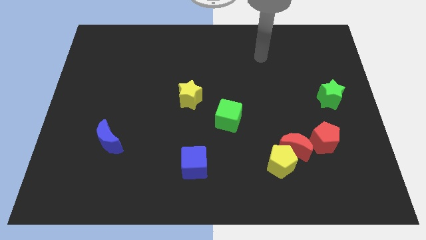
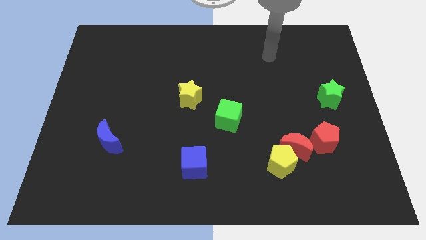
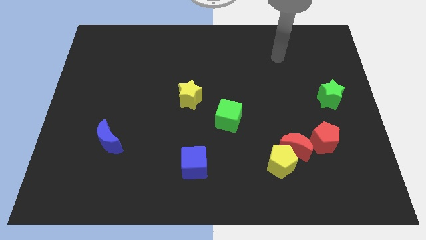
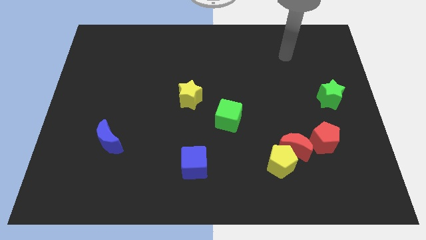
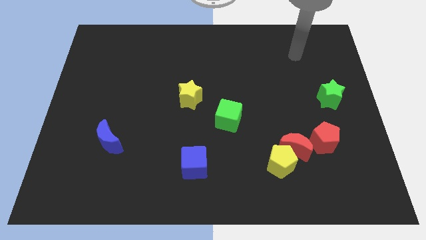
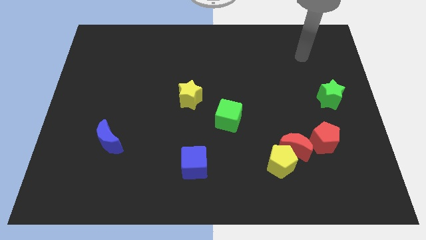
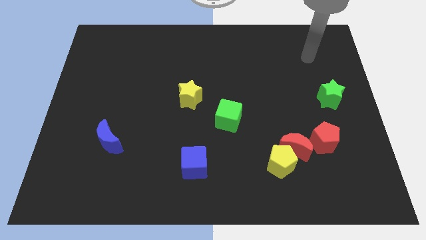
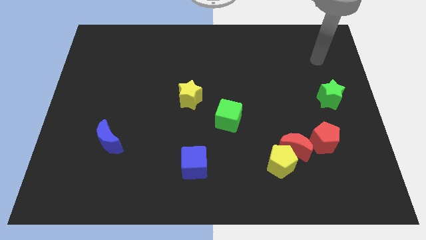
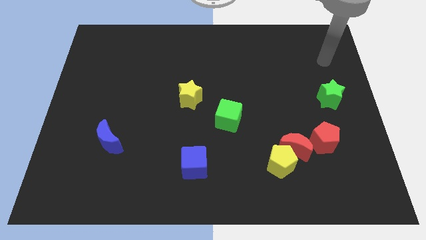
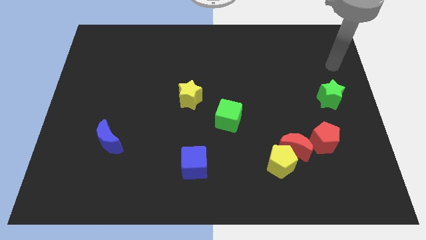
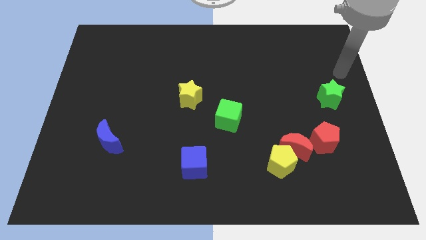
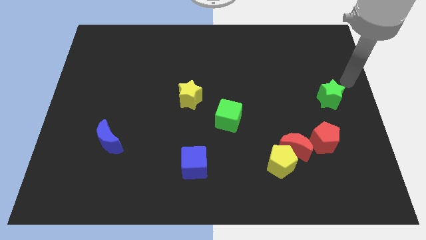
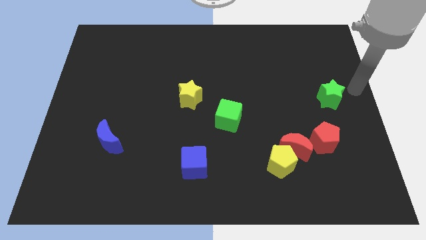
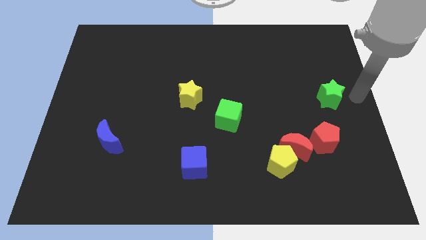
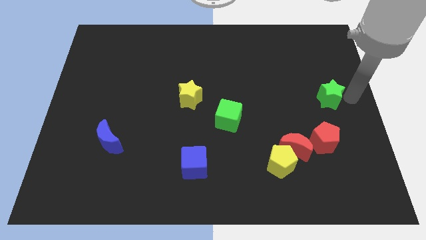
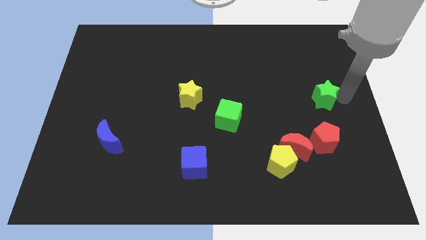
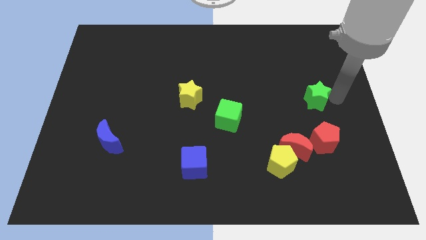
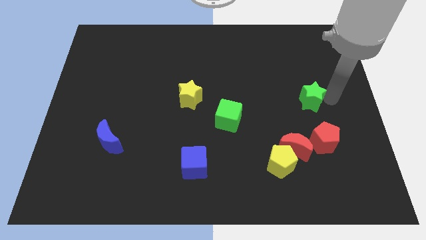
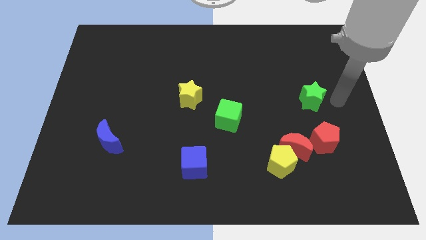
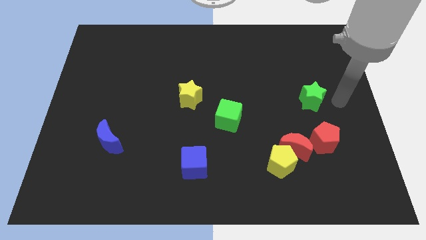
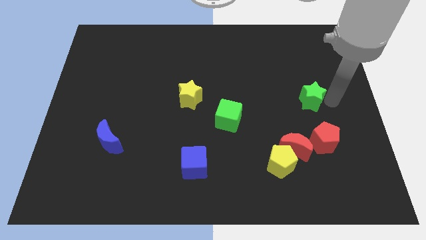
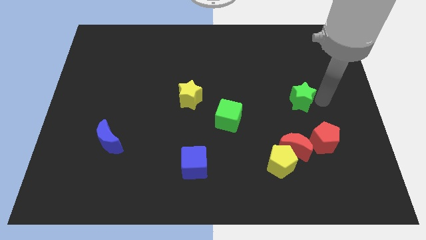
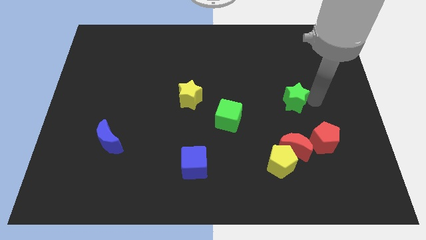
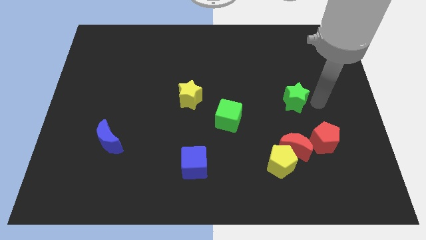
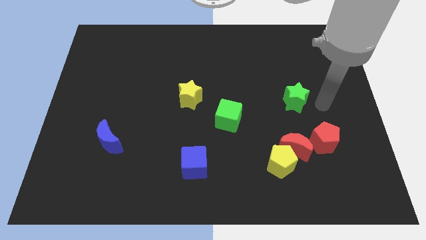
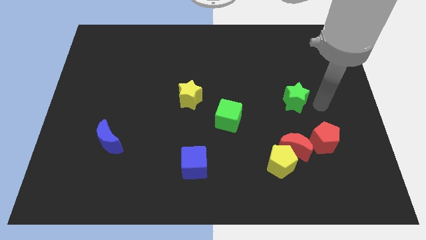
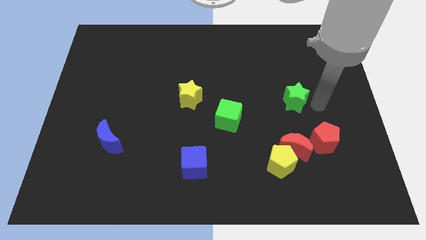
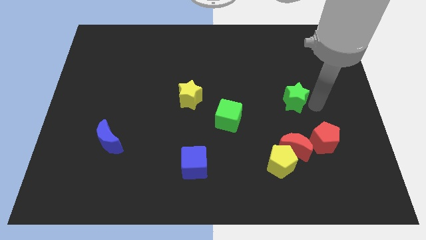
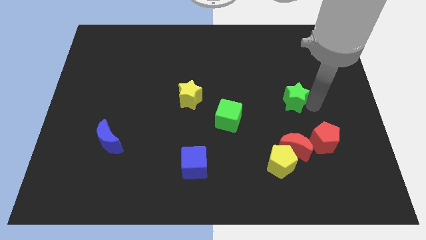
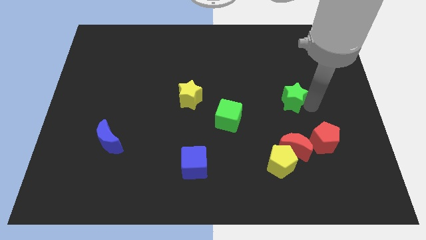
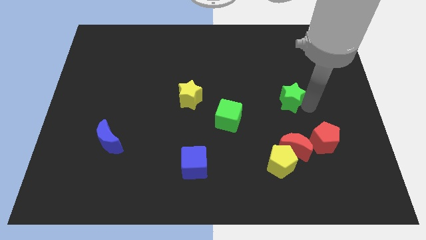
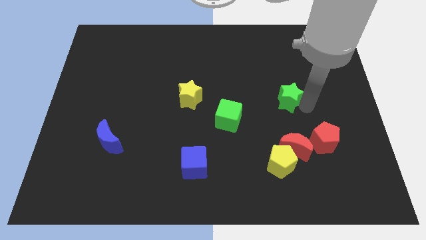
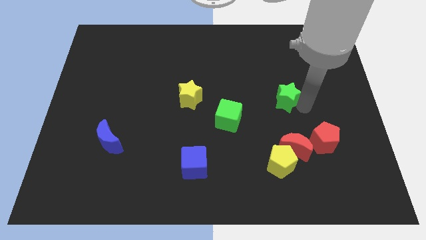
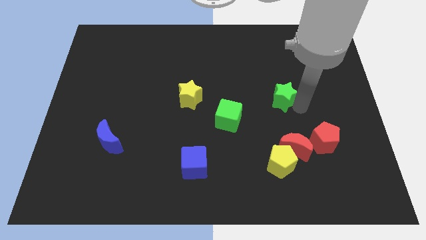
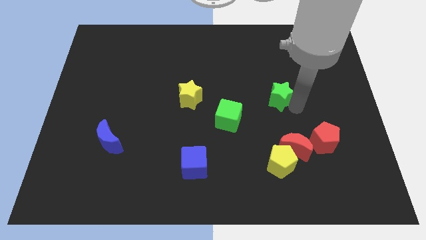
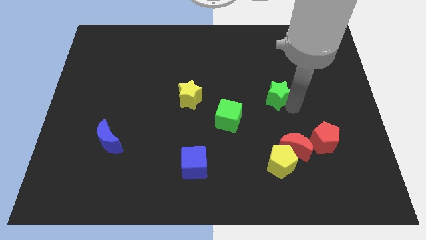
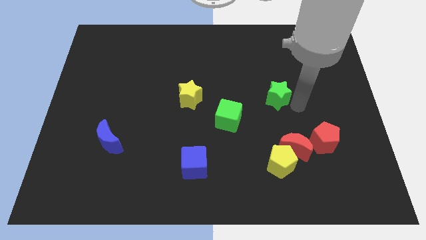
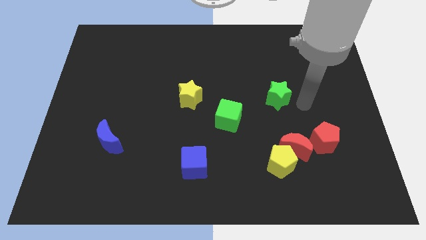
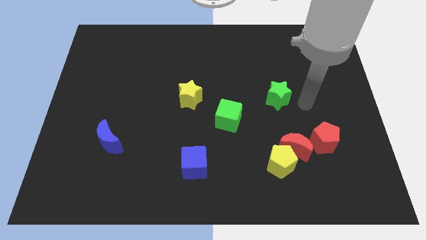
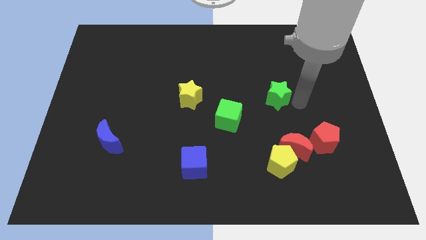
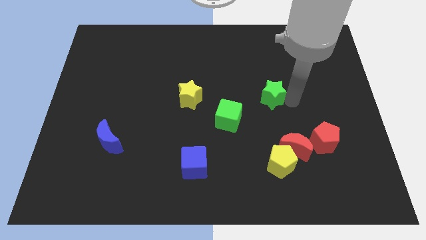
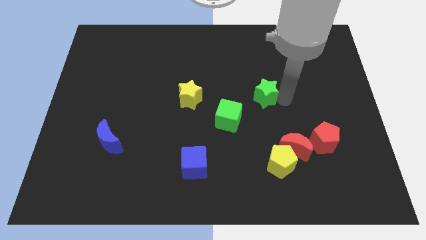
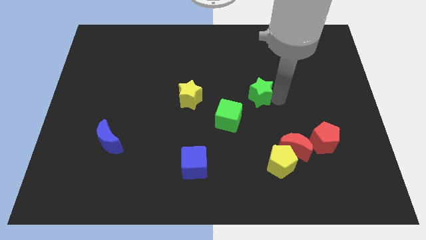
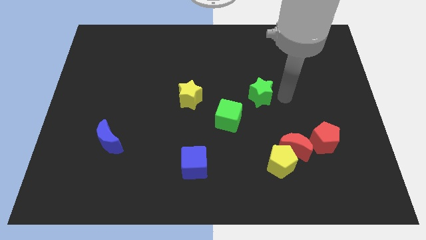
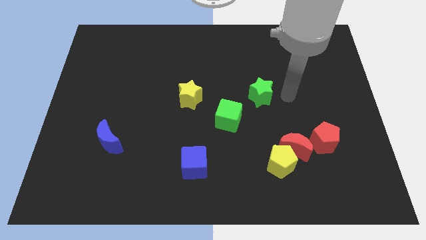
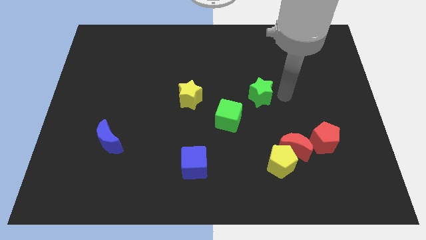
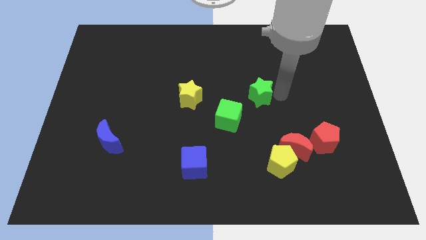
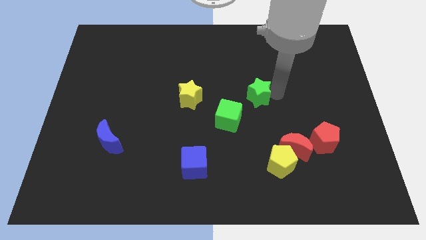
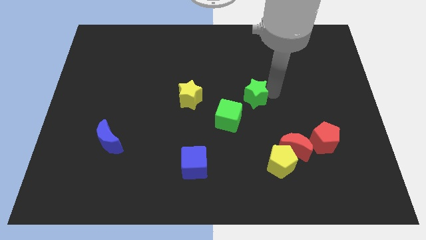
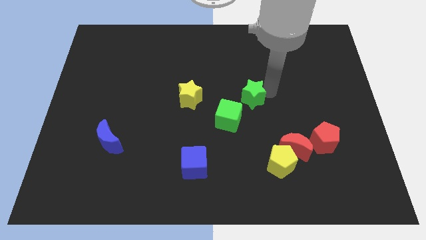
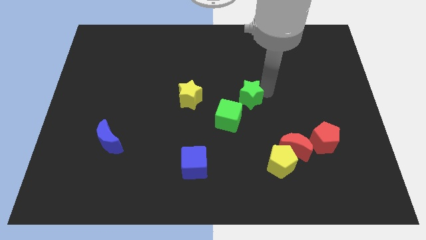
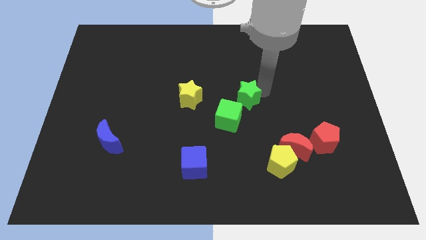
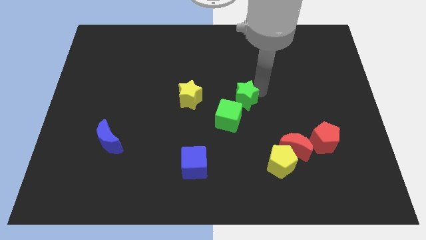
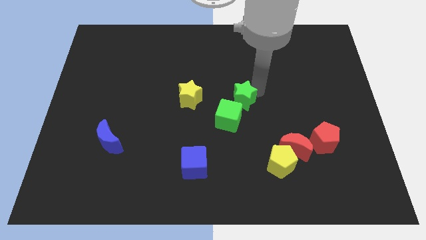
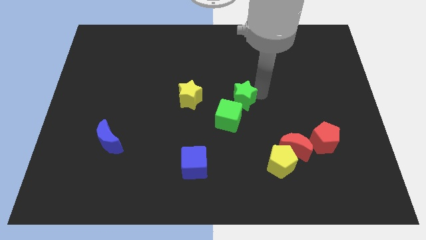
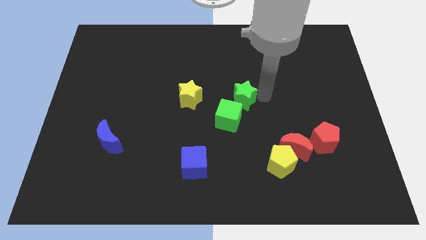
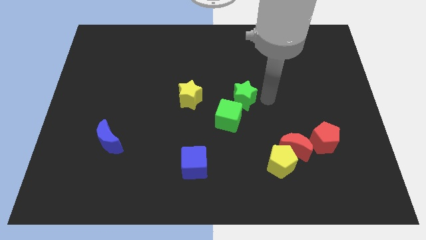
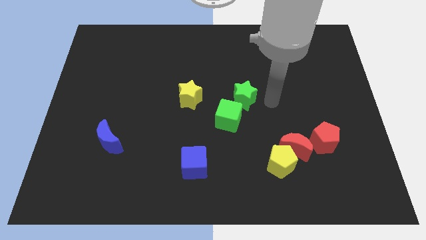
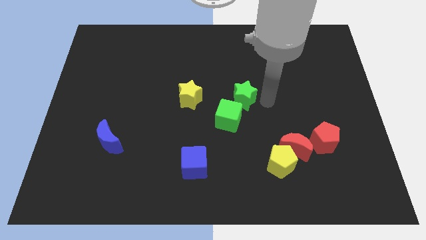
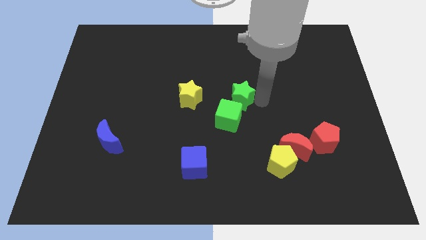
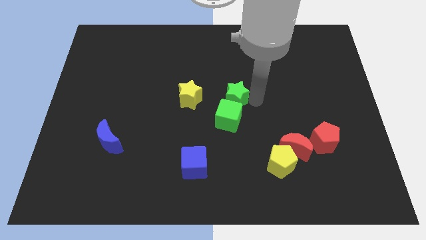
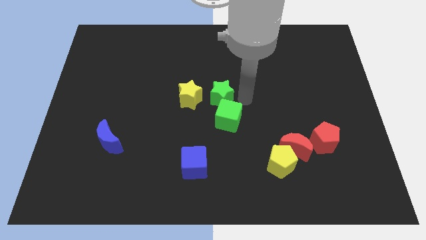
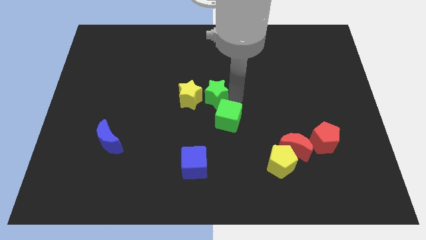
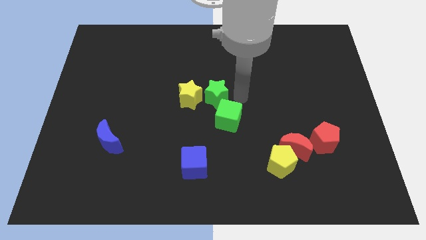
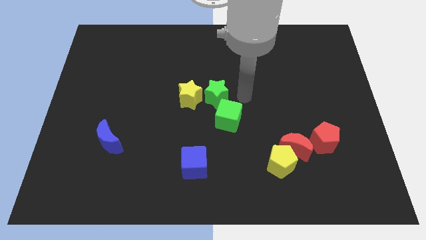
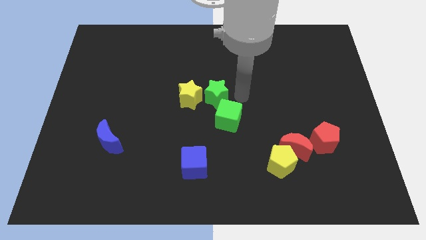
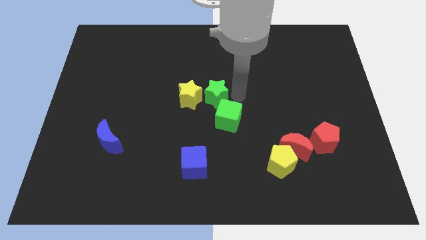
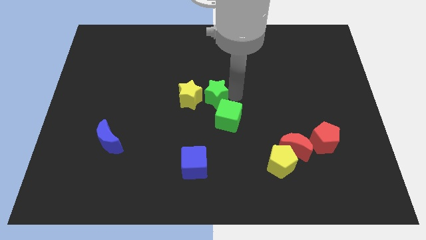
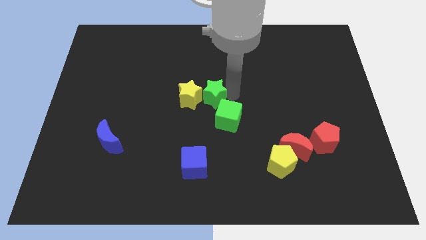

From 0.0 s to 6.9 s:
push the green star close to the yellow star

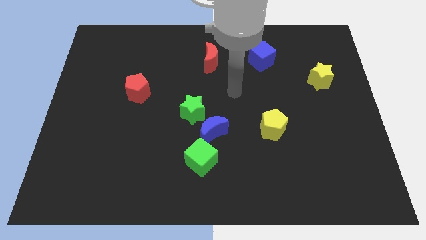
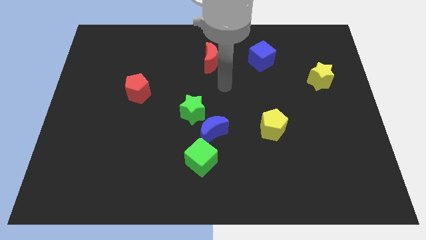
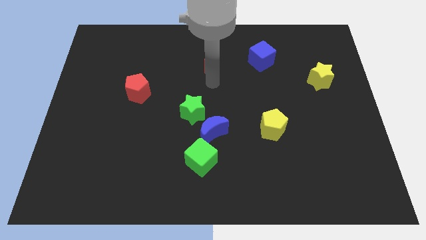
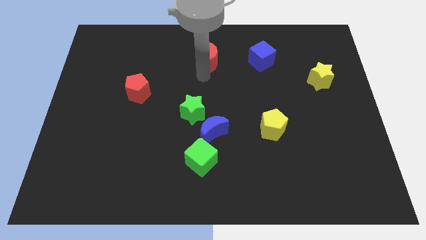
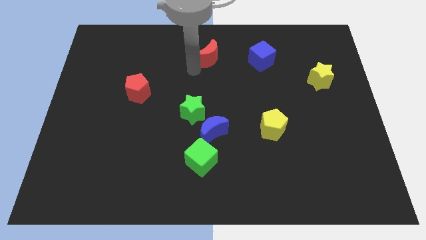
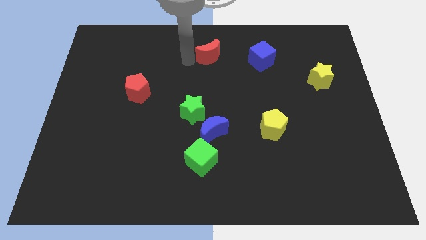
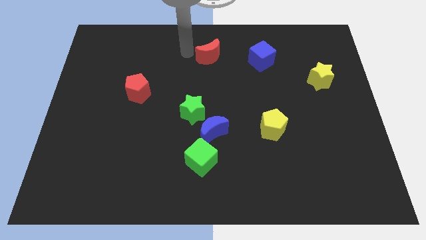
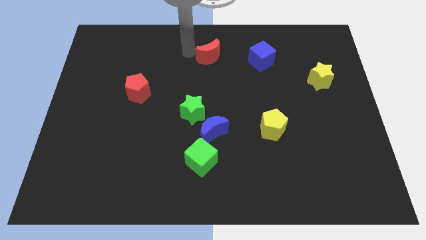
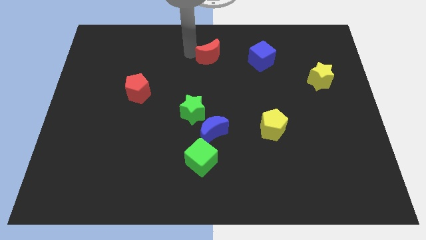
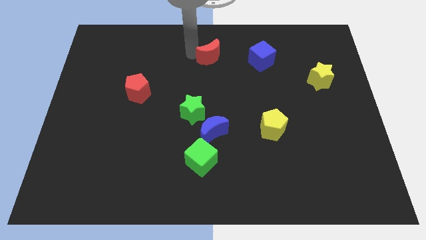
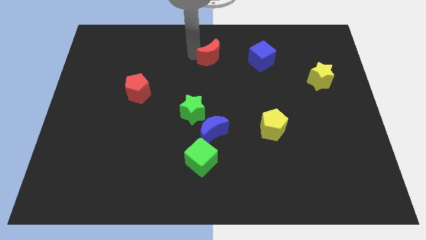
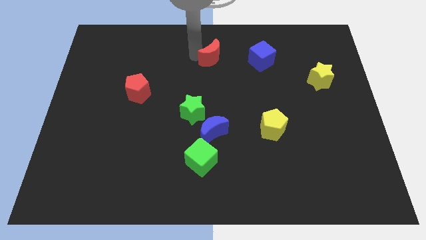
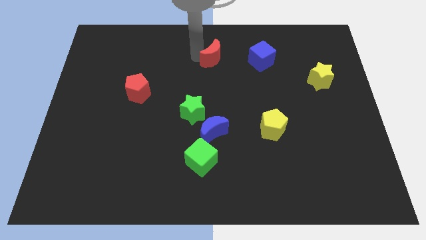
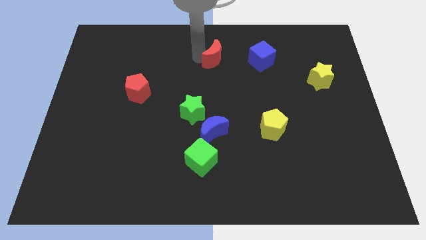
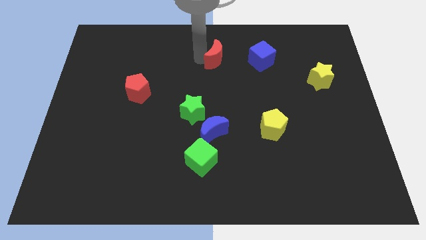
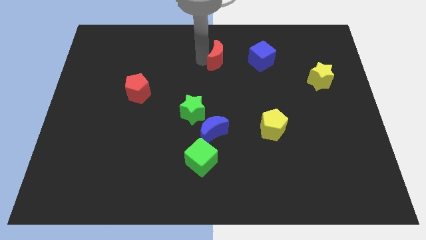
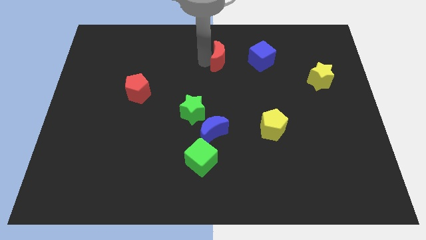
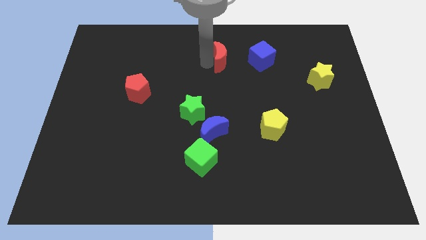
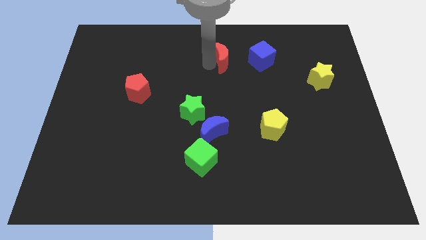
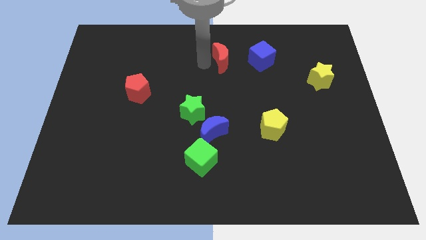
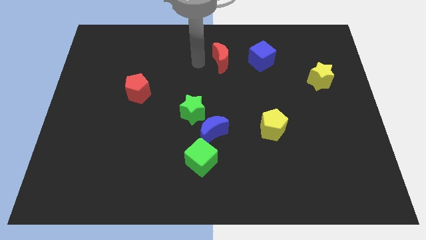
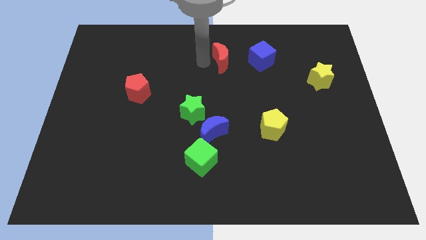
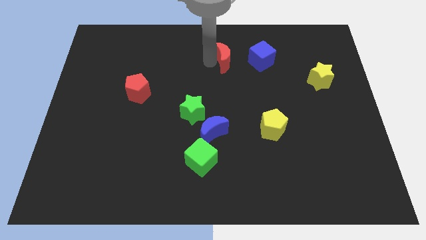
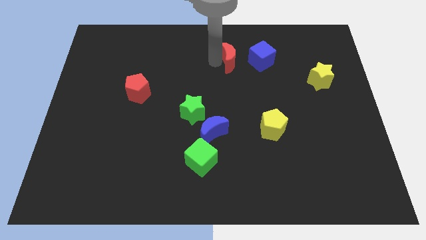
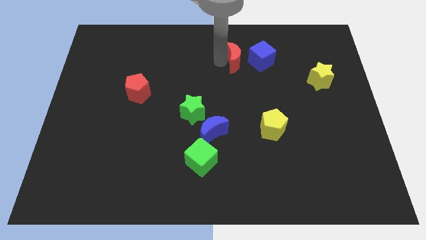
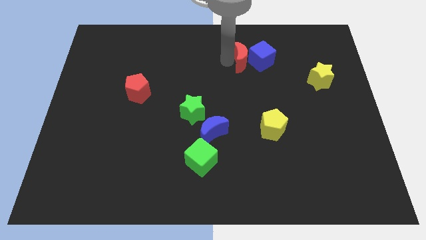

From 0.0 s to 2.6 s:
push the red moon next to the blue cube
